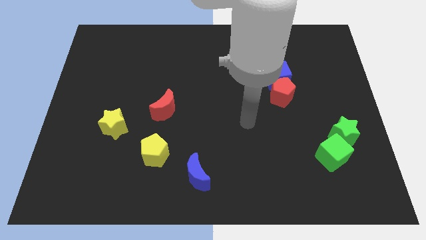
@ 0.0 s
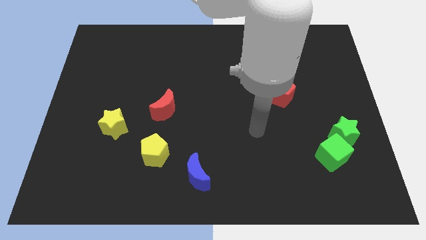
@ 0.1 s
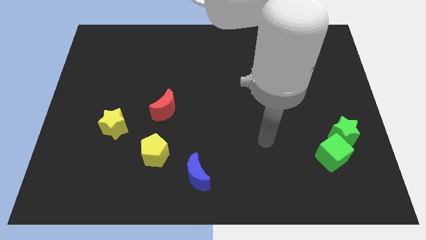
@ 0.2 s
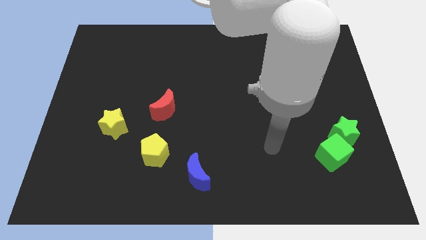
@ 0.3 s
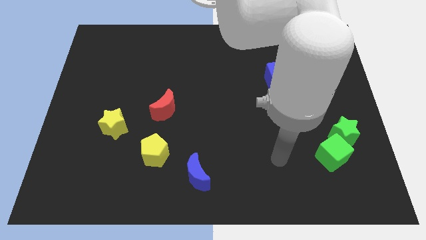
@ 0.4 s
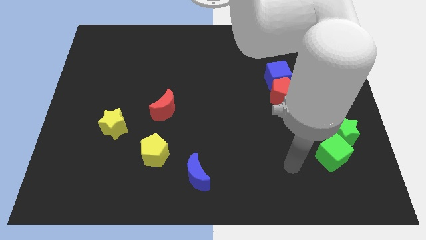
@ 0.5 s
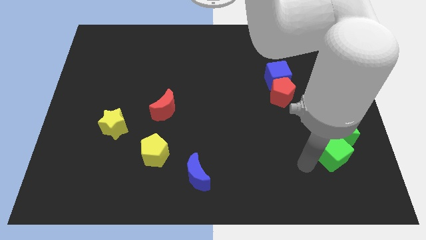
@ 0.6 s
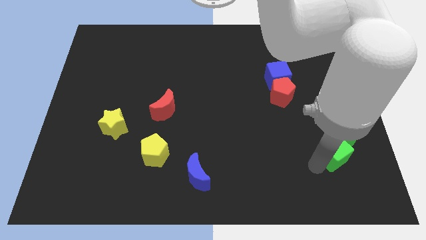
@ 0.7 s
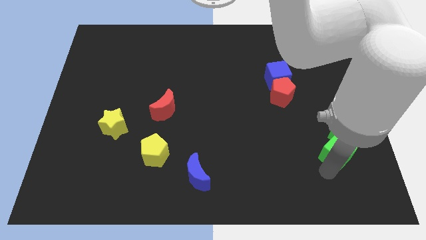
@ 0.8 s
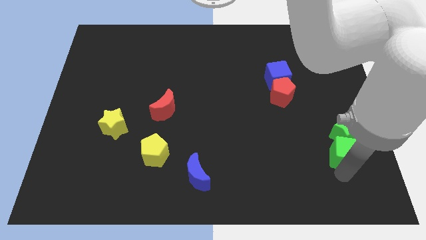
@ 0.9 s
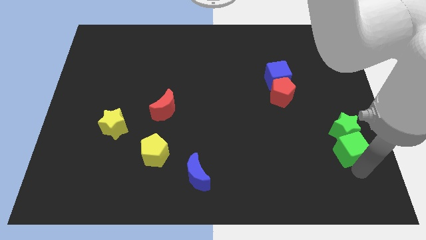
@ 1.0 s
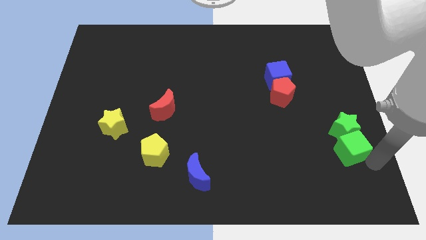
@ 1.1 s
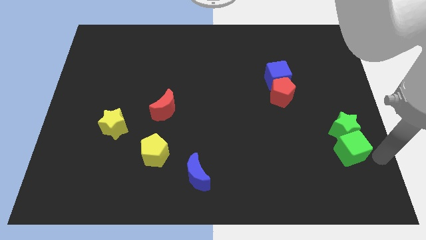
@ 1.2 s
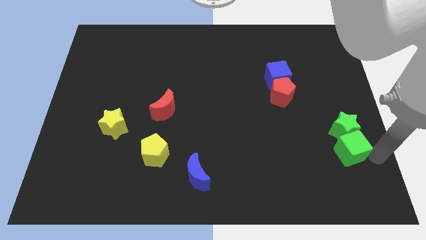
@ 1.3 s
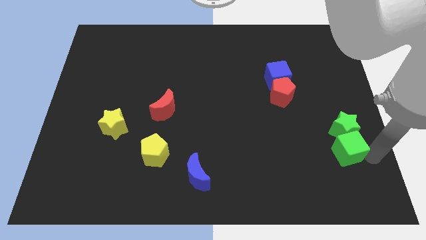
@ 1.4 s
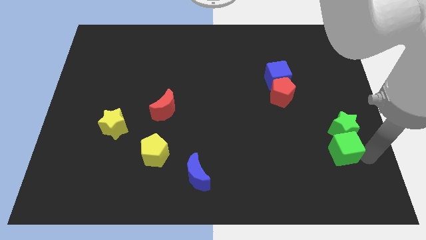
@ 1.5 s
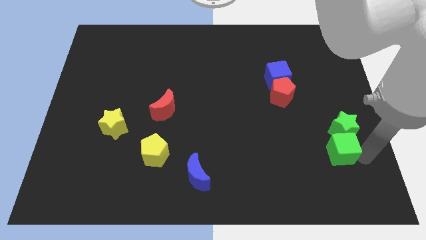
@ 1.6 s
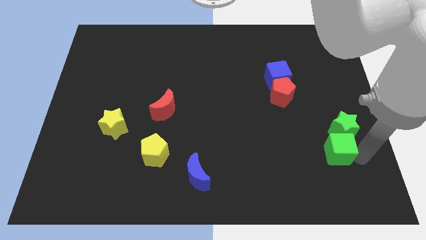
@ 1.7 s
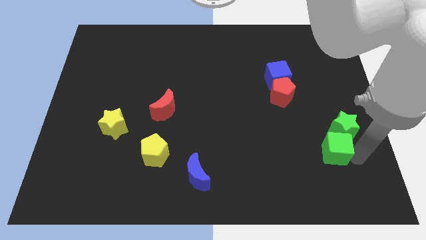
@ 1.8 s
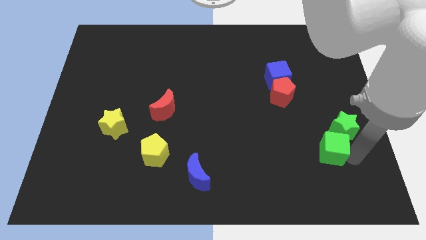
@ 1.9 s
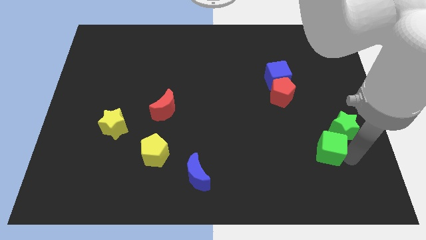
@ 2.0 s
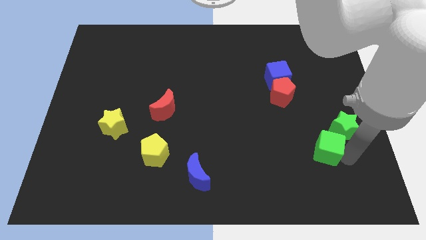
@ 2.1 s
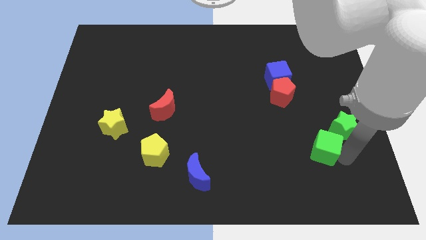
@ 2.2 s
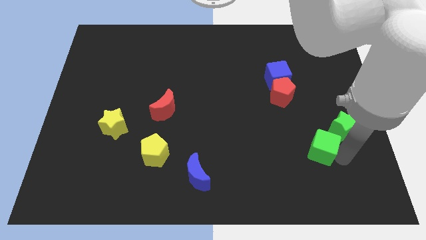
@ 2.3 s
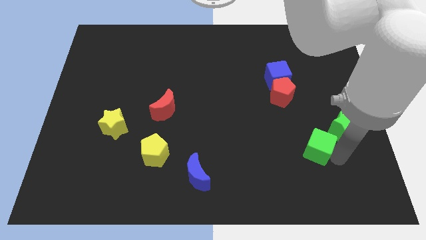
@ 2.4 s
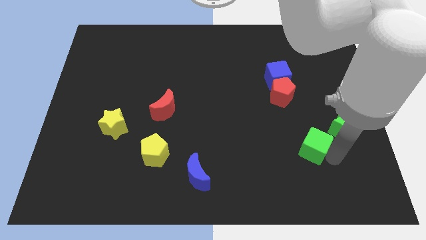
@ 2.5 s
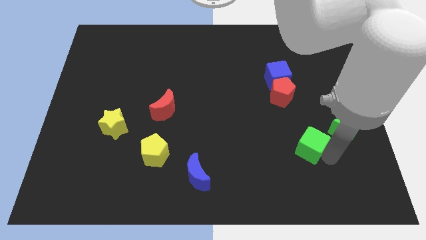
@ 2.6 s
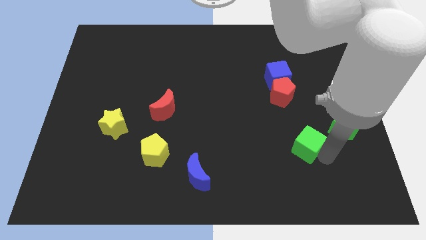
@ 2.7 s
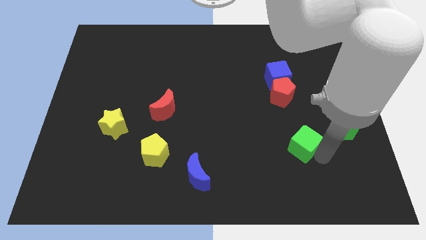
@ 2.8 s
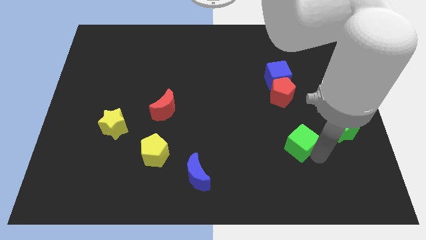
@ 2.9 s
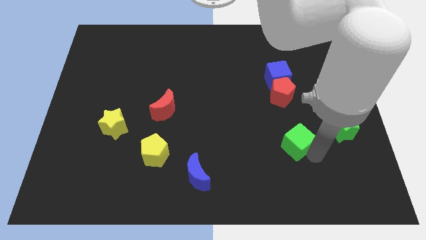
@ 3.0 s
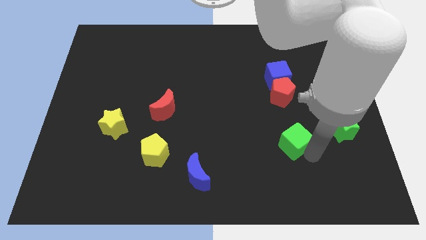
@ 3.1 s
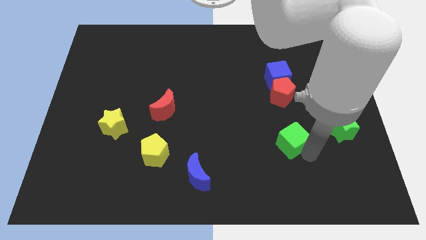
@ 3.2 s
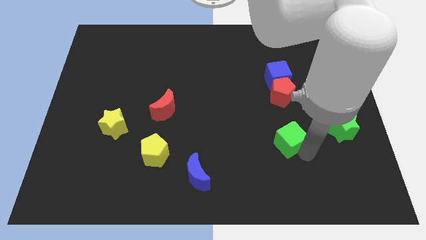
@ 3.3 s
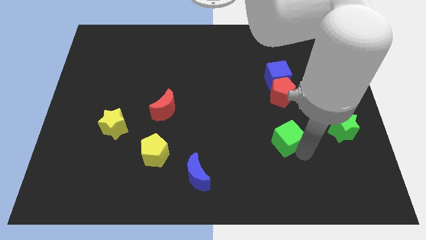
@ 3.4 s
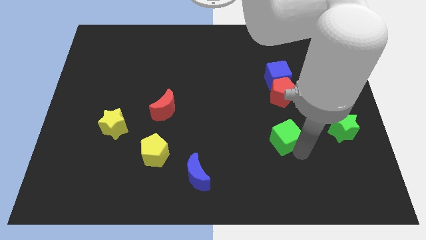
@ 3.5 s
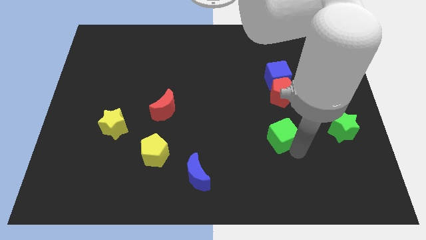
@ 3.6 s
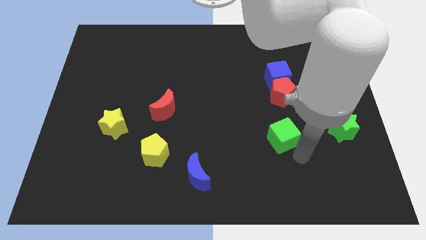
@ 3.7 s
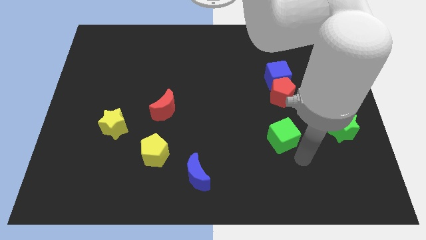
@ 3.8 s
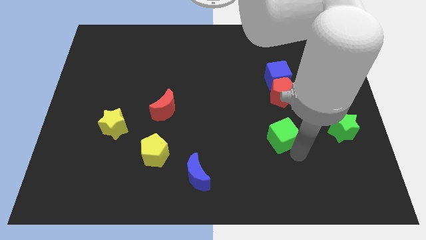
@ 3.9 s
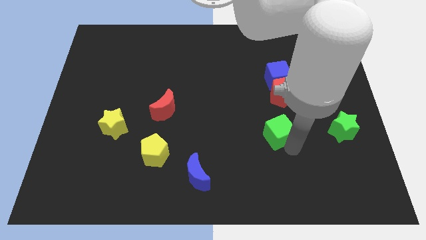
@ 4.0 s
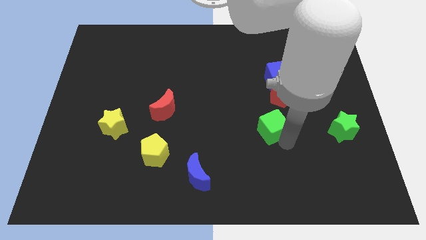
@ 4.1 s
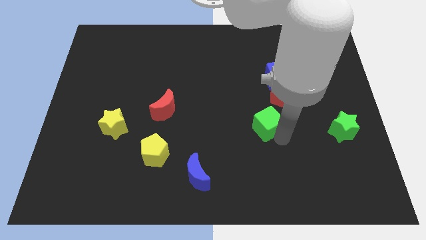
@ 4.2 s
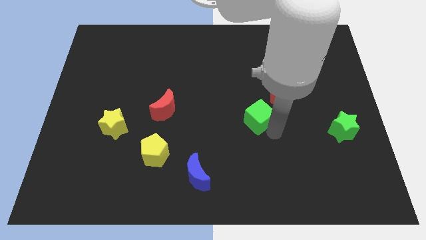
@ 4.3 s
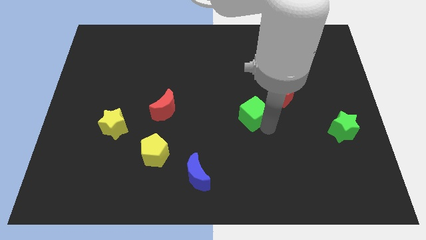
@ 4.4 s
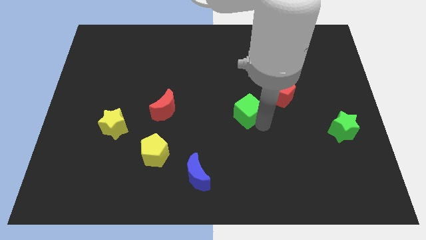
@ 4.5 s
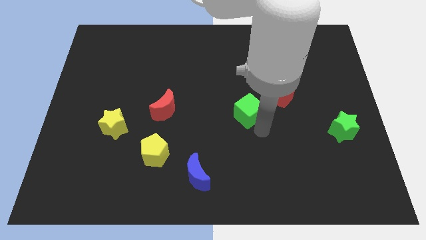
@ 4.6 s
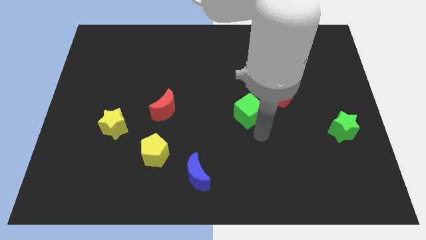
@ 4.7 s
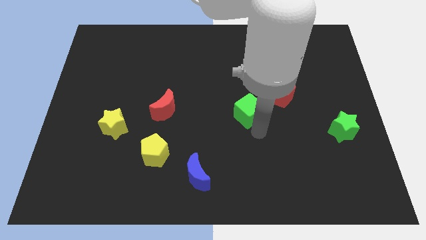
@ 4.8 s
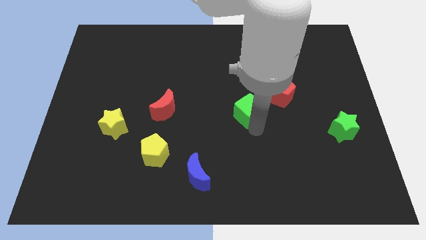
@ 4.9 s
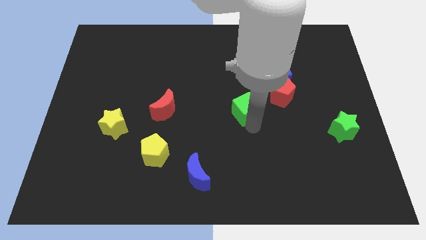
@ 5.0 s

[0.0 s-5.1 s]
push the green cube diagonally upwards and left

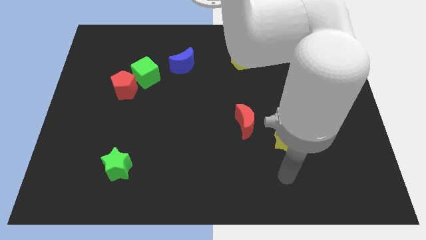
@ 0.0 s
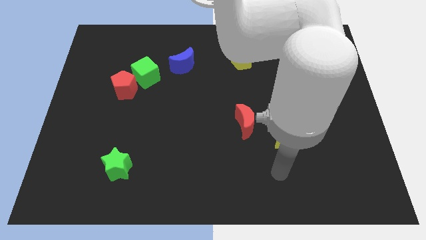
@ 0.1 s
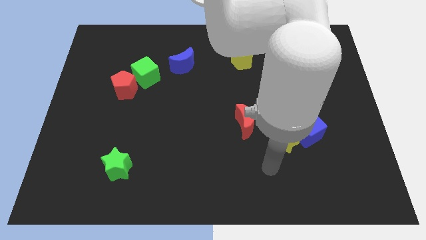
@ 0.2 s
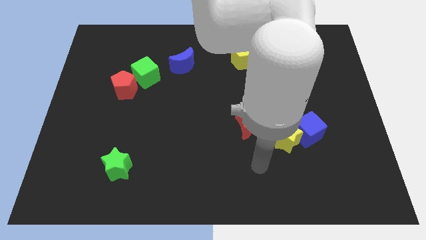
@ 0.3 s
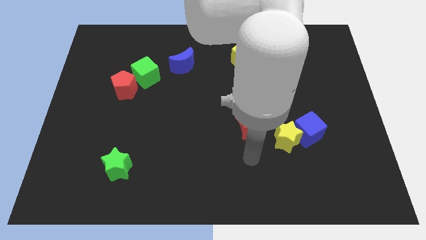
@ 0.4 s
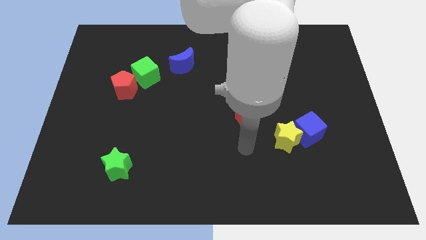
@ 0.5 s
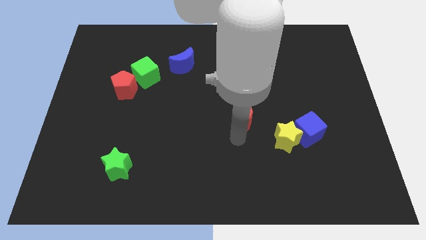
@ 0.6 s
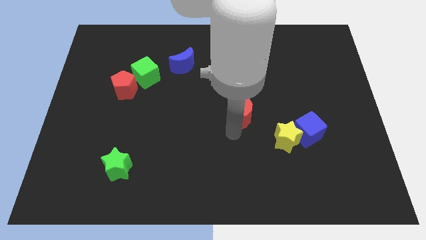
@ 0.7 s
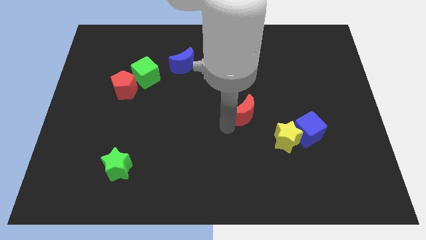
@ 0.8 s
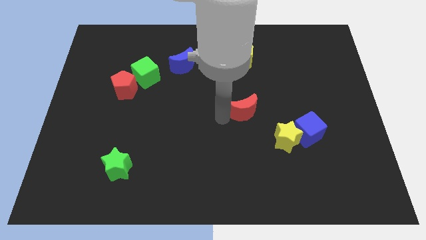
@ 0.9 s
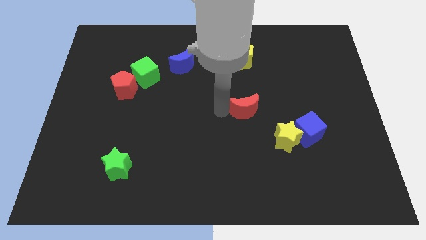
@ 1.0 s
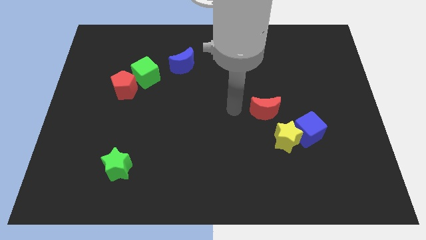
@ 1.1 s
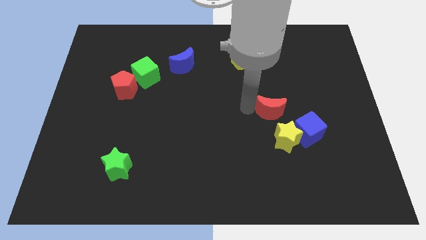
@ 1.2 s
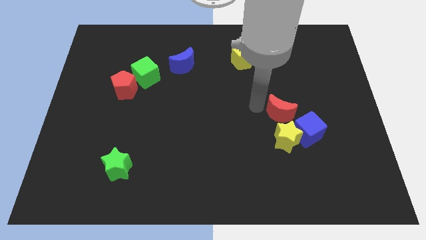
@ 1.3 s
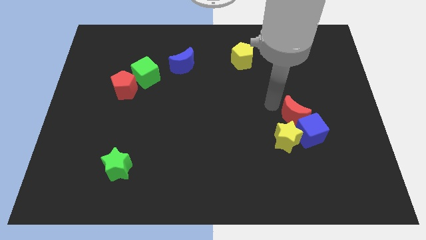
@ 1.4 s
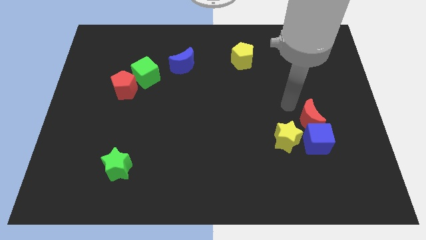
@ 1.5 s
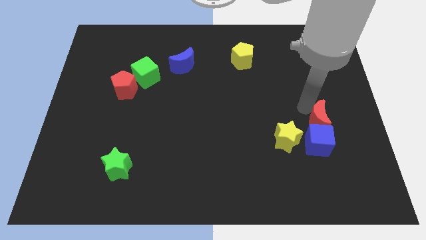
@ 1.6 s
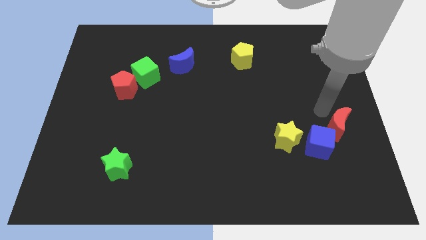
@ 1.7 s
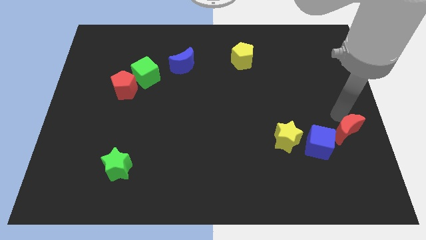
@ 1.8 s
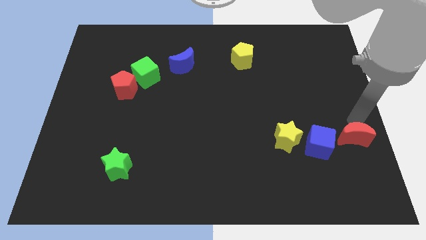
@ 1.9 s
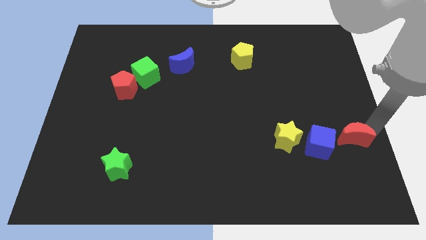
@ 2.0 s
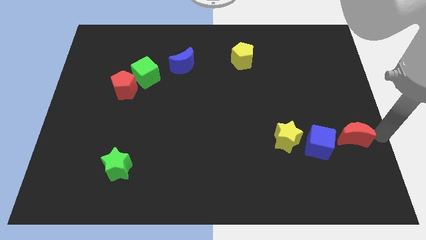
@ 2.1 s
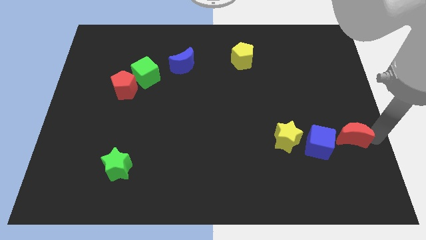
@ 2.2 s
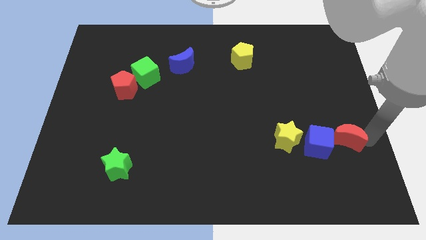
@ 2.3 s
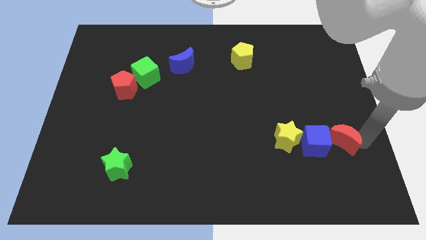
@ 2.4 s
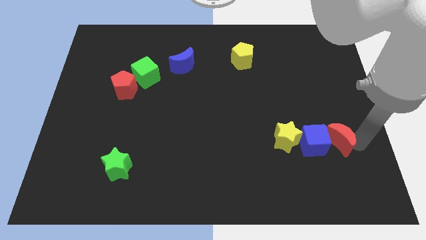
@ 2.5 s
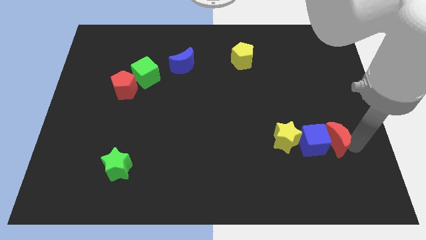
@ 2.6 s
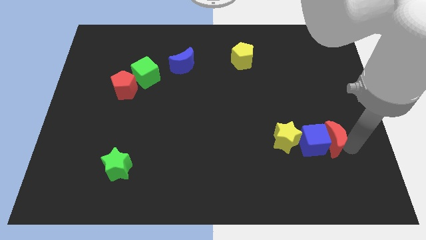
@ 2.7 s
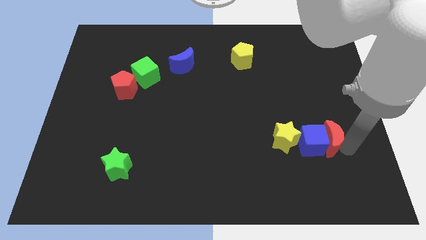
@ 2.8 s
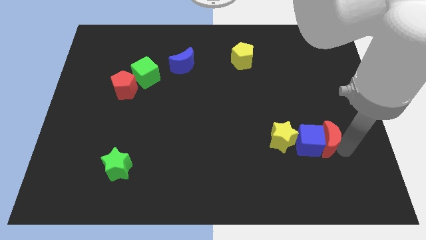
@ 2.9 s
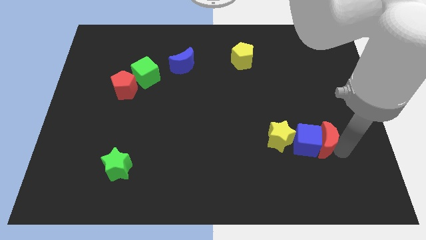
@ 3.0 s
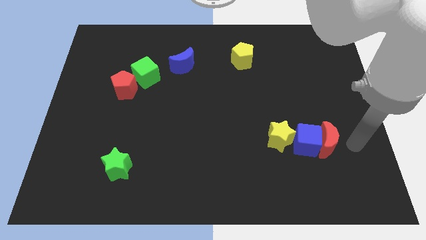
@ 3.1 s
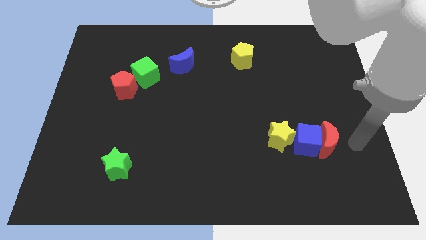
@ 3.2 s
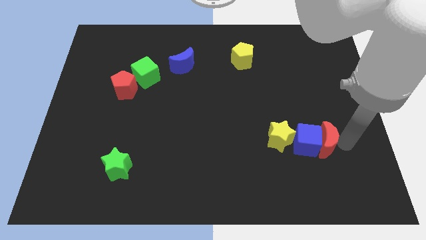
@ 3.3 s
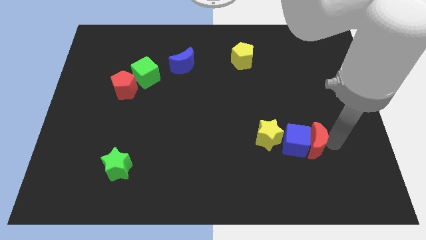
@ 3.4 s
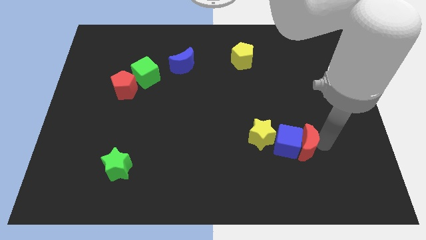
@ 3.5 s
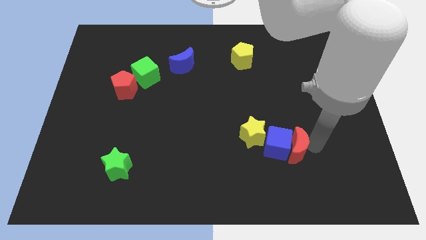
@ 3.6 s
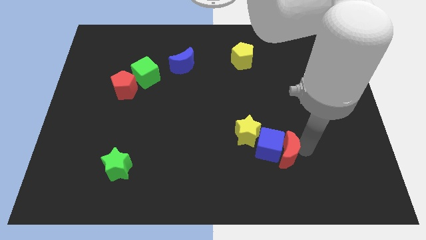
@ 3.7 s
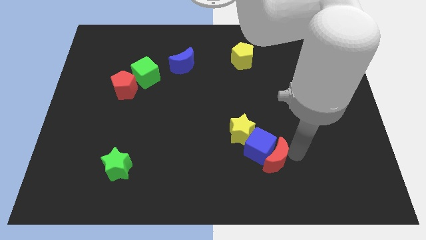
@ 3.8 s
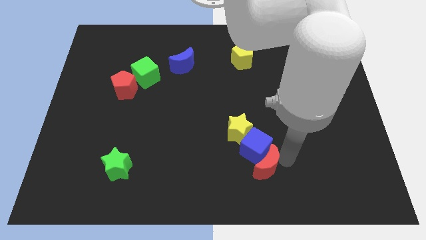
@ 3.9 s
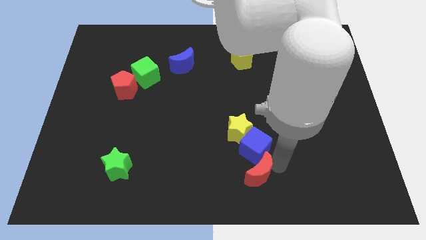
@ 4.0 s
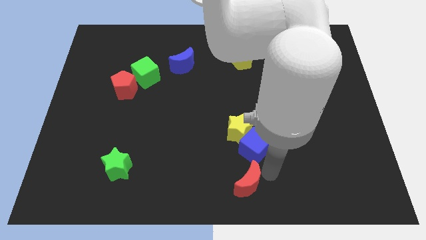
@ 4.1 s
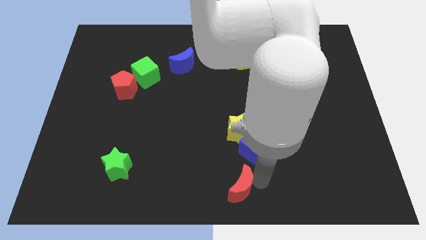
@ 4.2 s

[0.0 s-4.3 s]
push the red moon a little downwards and then to the left
